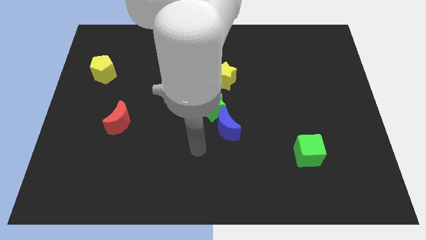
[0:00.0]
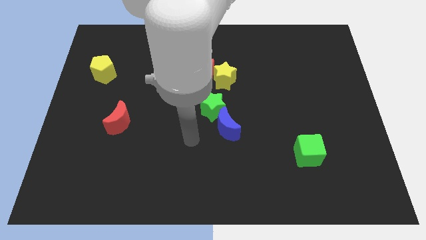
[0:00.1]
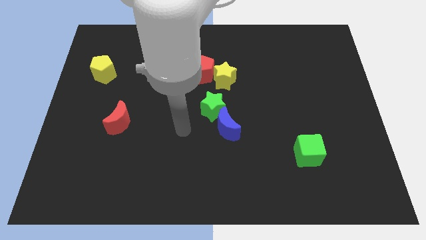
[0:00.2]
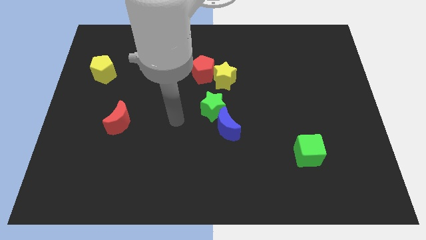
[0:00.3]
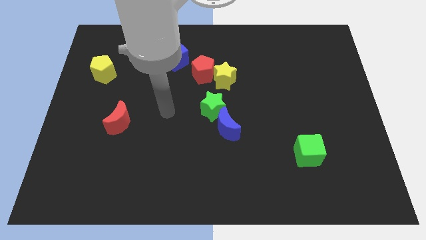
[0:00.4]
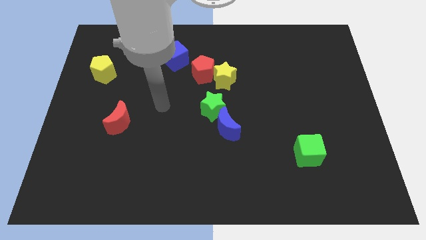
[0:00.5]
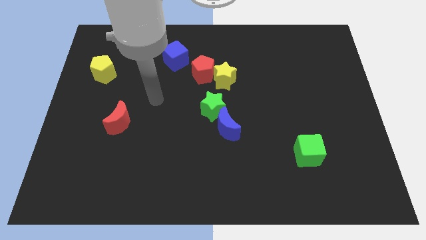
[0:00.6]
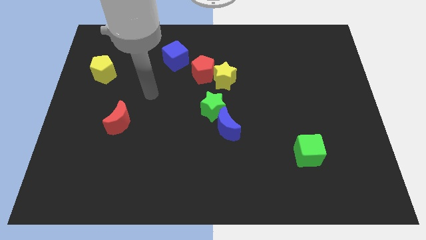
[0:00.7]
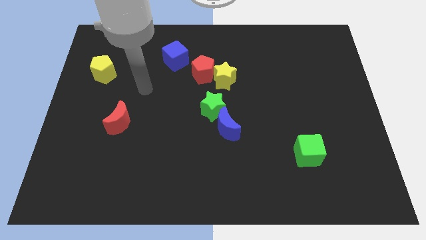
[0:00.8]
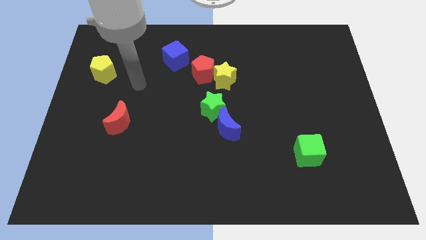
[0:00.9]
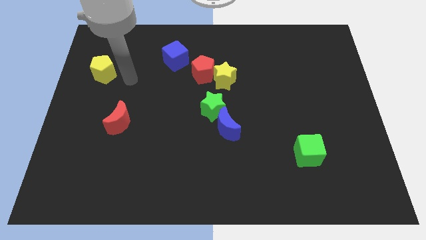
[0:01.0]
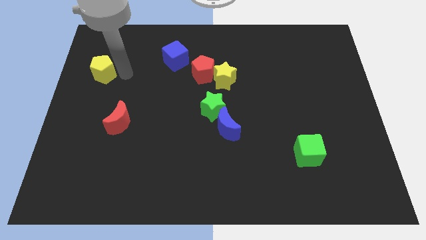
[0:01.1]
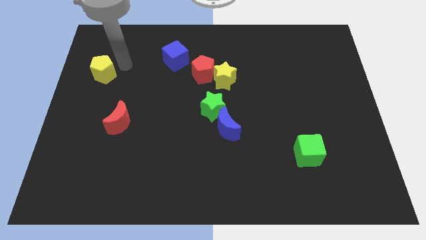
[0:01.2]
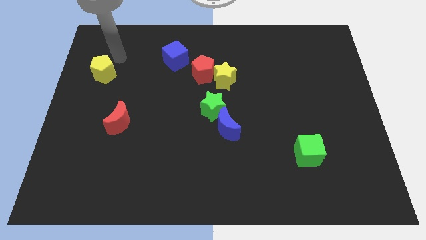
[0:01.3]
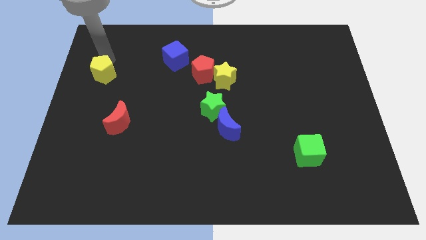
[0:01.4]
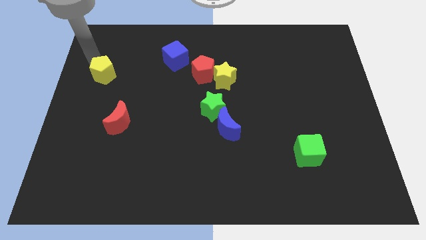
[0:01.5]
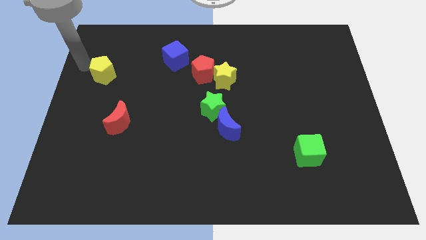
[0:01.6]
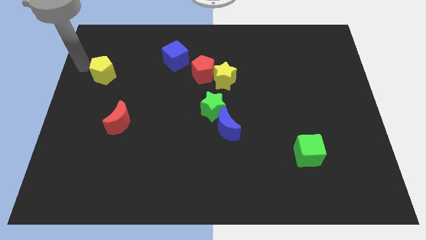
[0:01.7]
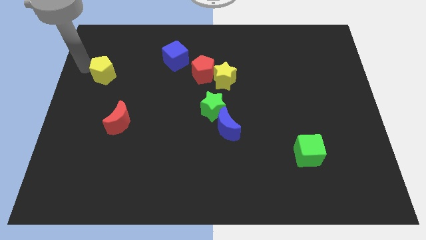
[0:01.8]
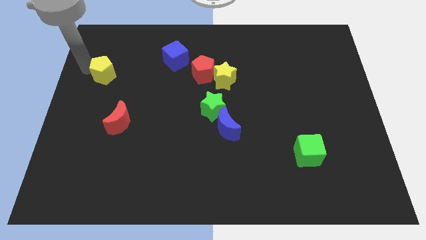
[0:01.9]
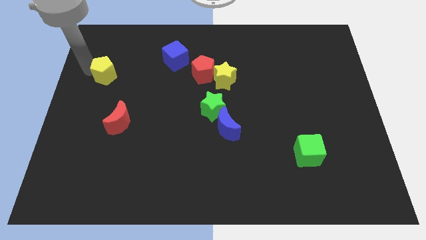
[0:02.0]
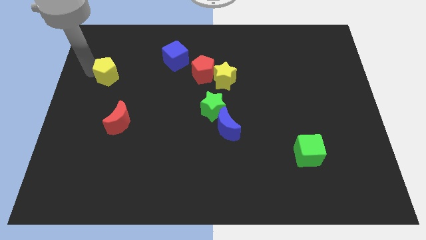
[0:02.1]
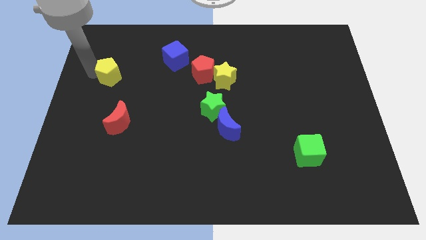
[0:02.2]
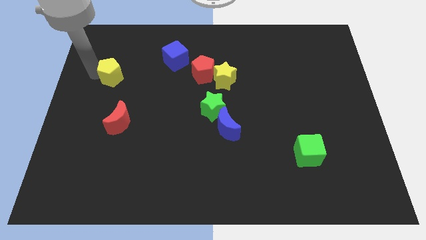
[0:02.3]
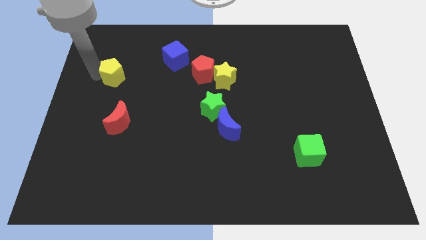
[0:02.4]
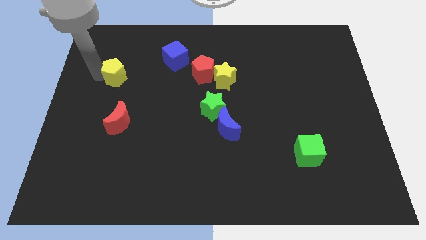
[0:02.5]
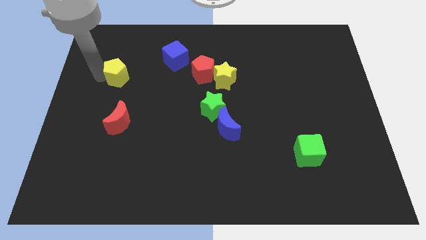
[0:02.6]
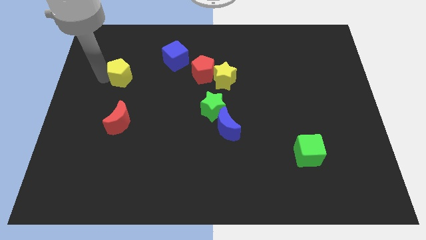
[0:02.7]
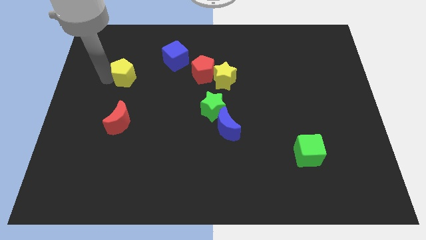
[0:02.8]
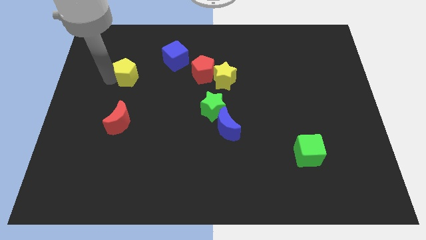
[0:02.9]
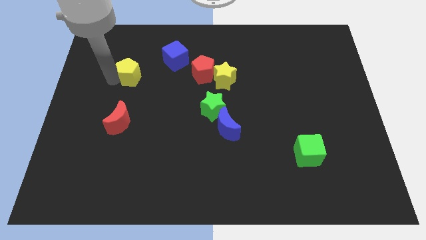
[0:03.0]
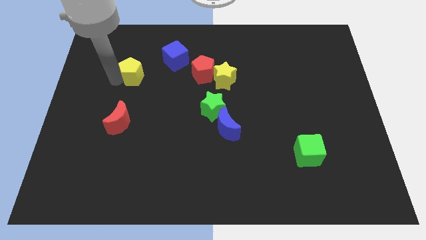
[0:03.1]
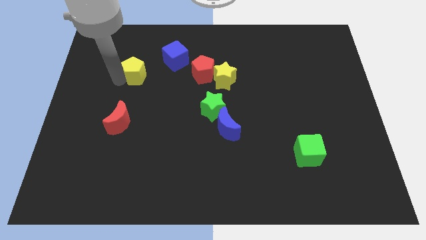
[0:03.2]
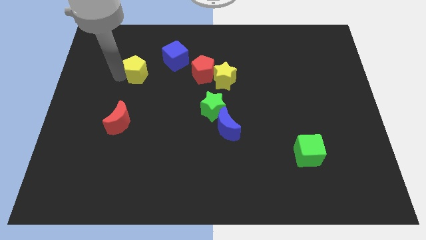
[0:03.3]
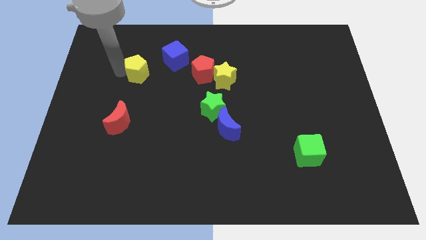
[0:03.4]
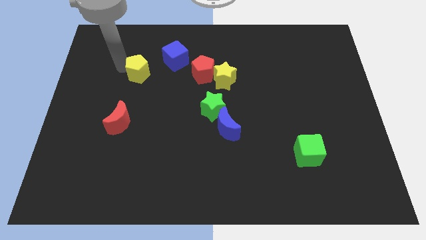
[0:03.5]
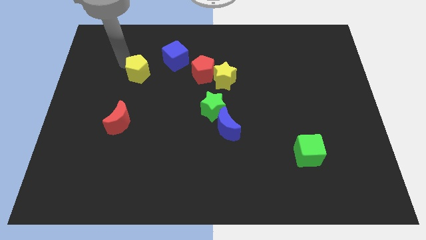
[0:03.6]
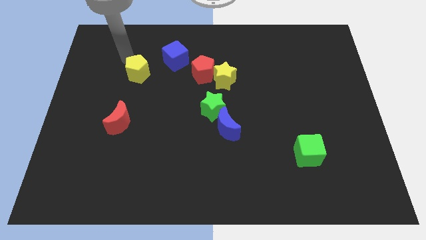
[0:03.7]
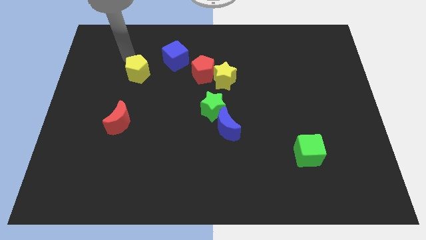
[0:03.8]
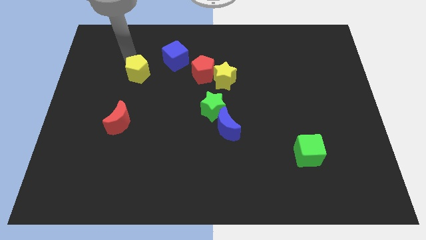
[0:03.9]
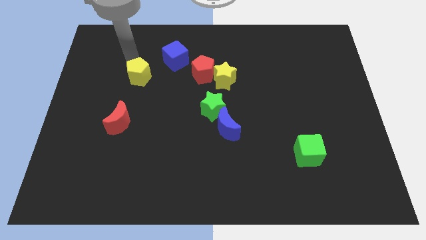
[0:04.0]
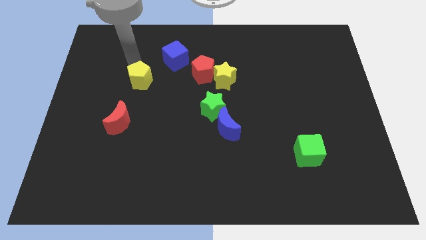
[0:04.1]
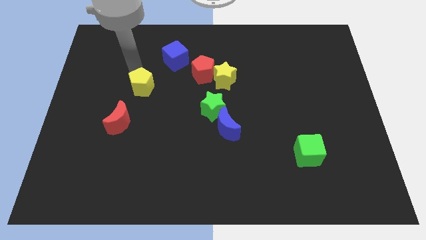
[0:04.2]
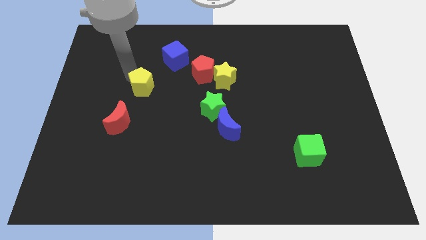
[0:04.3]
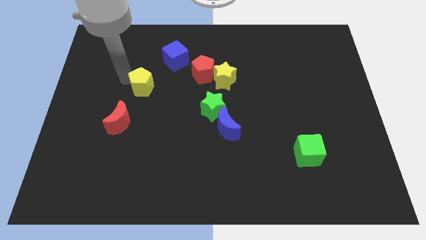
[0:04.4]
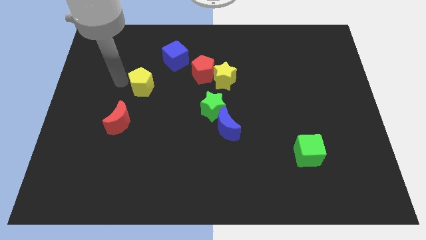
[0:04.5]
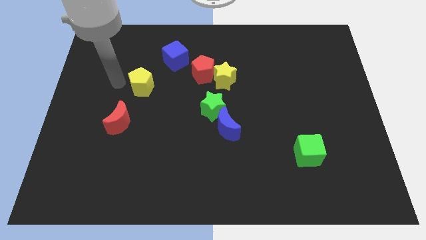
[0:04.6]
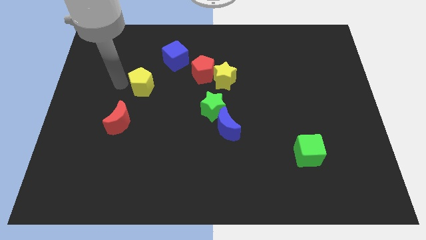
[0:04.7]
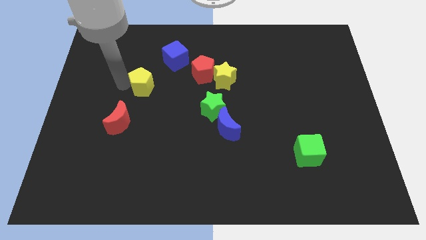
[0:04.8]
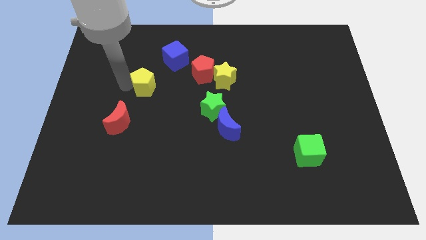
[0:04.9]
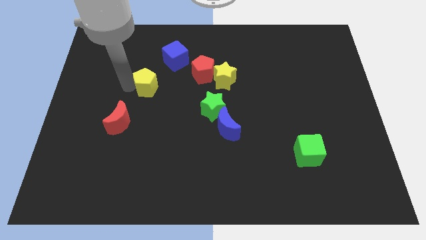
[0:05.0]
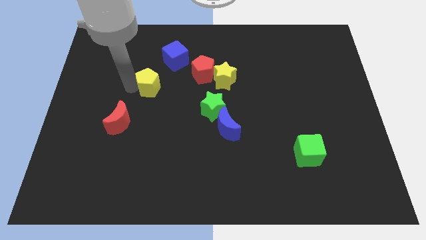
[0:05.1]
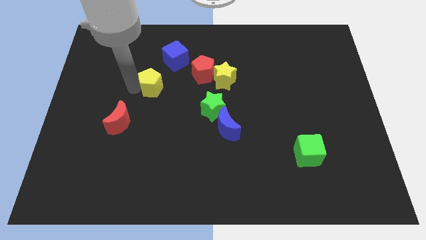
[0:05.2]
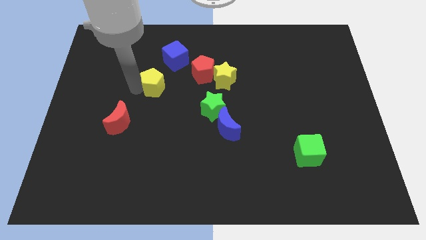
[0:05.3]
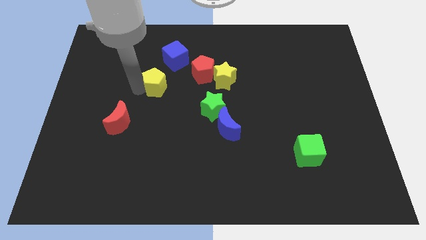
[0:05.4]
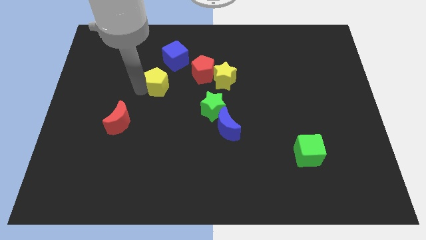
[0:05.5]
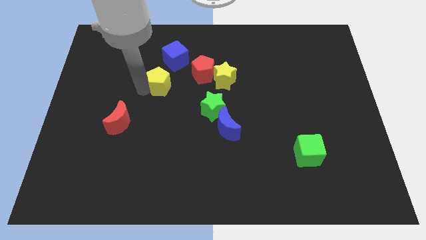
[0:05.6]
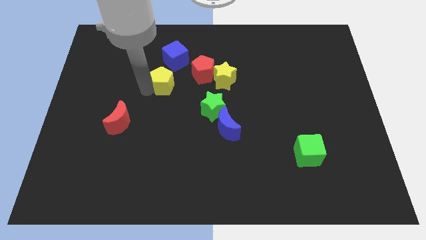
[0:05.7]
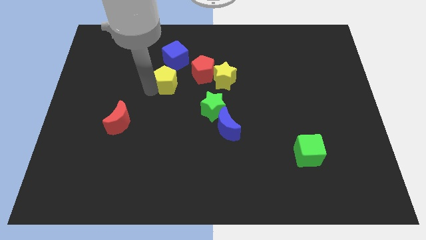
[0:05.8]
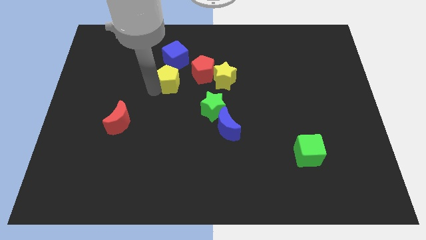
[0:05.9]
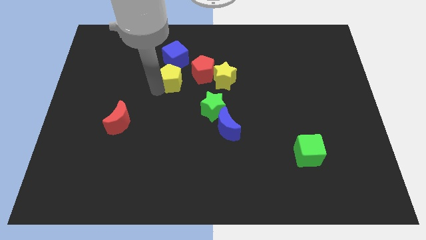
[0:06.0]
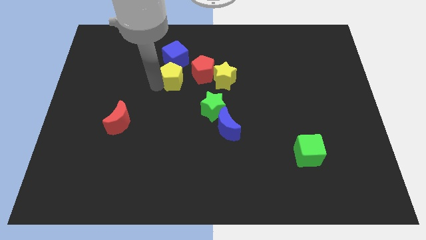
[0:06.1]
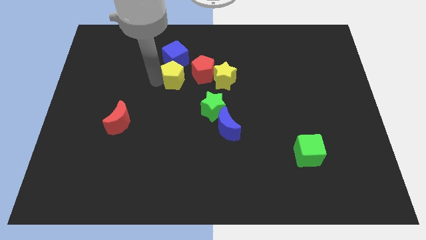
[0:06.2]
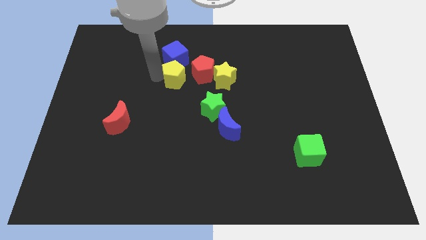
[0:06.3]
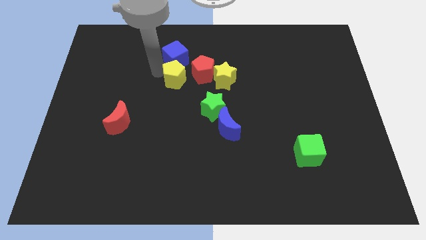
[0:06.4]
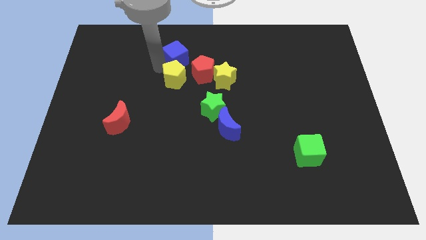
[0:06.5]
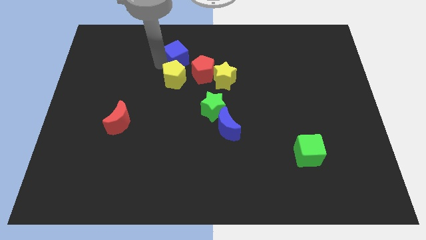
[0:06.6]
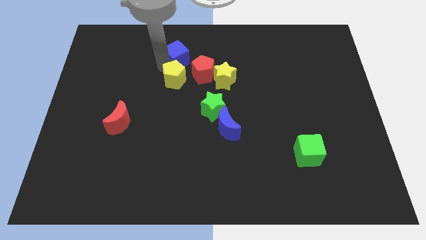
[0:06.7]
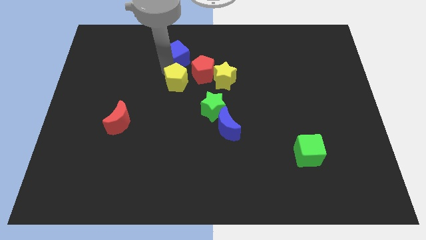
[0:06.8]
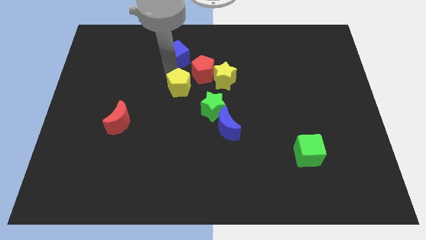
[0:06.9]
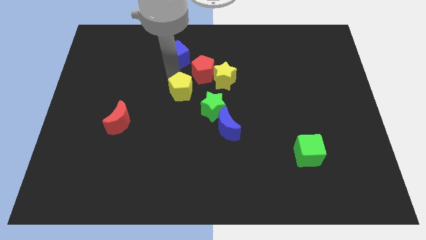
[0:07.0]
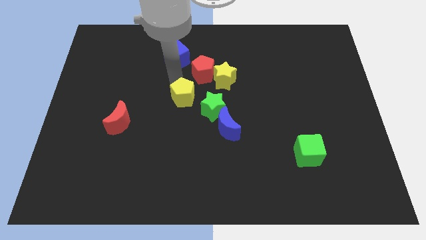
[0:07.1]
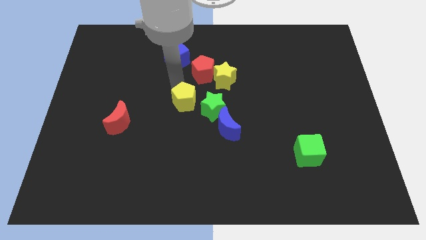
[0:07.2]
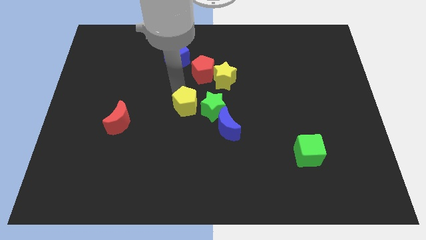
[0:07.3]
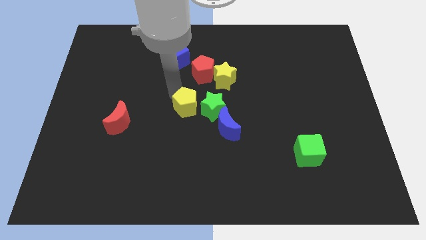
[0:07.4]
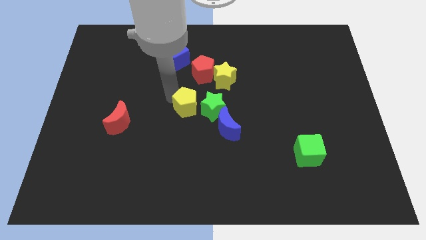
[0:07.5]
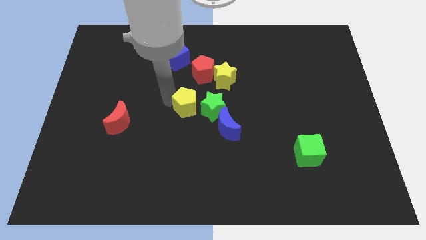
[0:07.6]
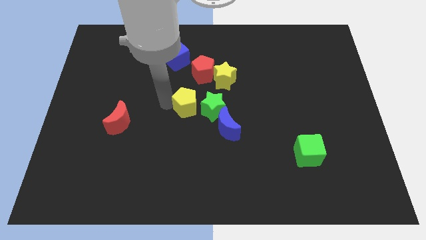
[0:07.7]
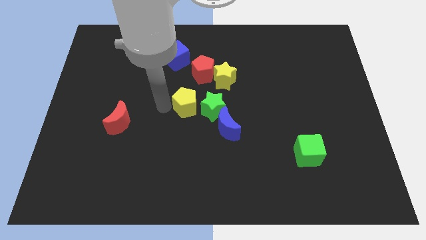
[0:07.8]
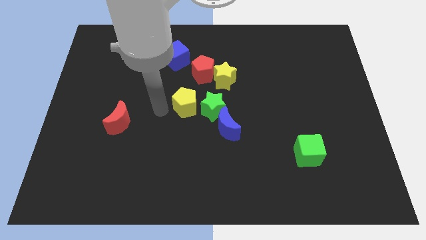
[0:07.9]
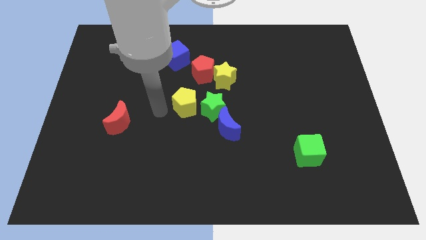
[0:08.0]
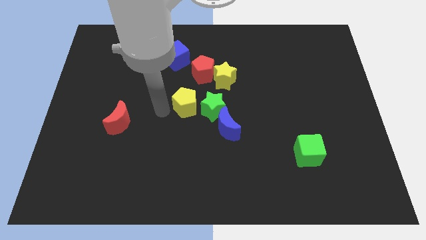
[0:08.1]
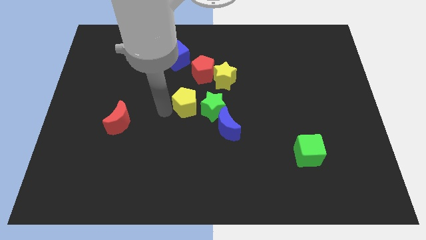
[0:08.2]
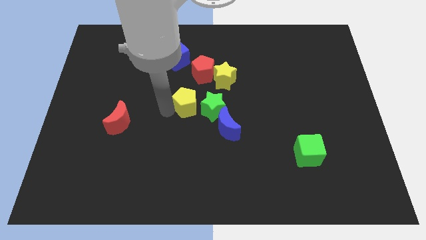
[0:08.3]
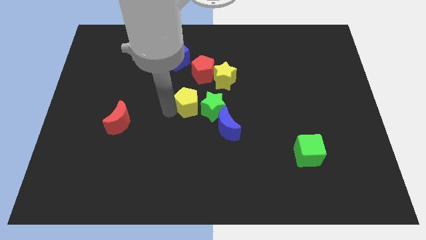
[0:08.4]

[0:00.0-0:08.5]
put the yellow pentagon towards the green star
